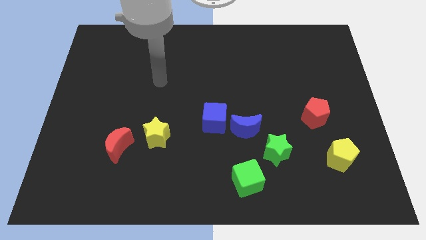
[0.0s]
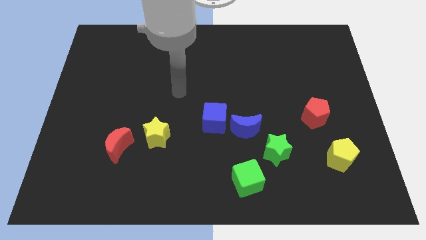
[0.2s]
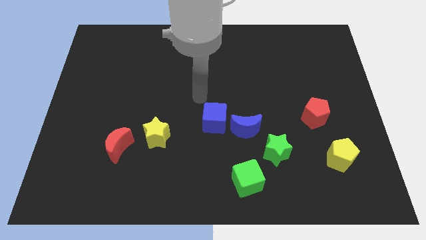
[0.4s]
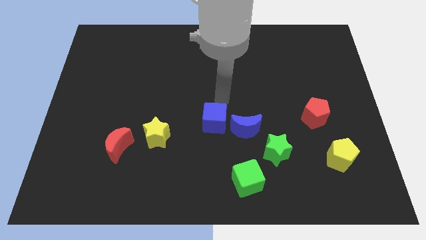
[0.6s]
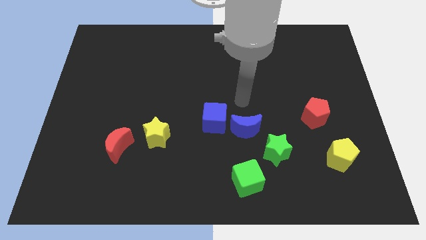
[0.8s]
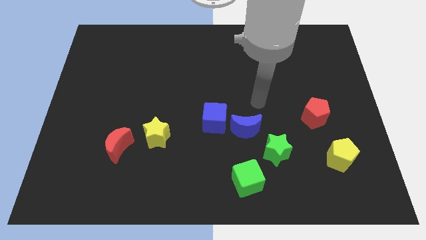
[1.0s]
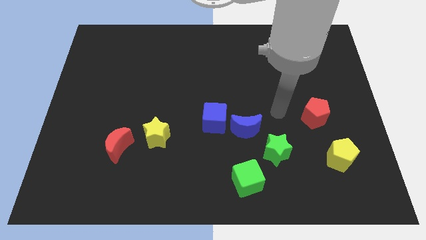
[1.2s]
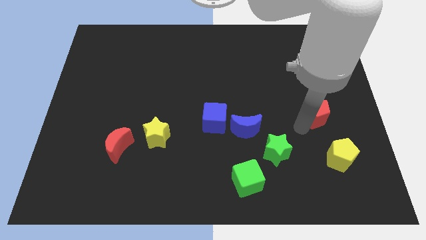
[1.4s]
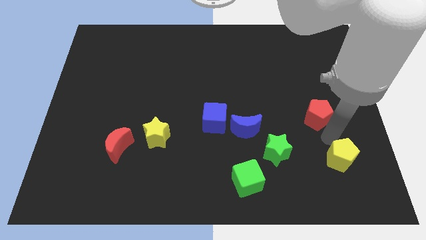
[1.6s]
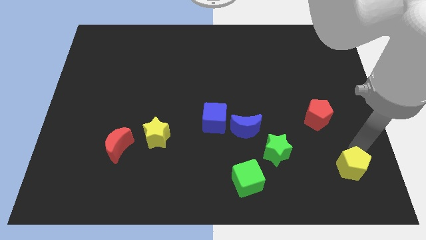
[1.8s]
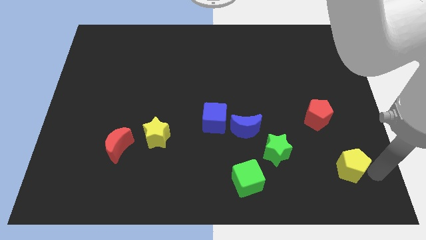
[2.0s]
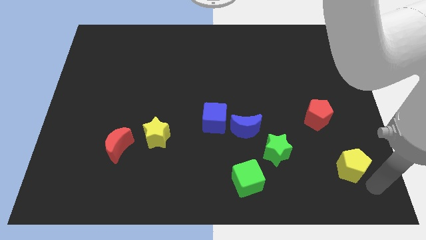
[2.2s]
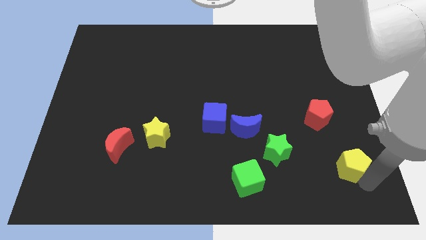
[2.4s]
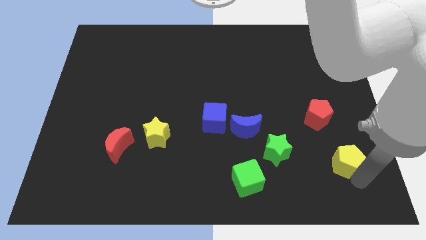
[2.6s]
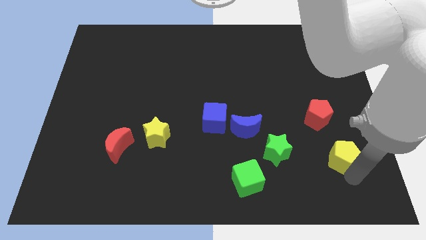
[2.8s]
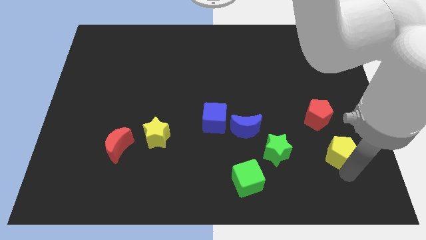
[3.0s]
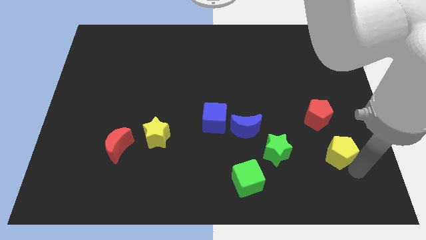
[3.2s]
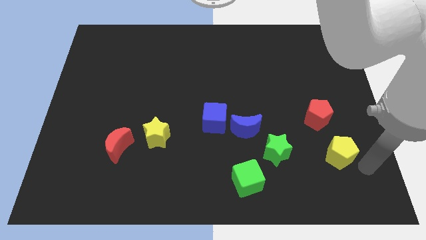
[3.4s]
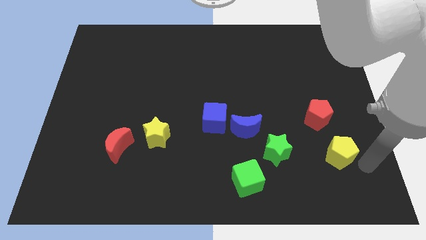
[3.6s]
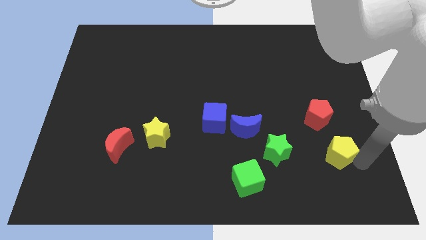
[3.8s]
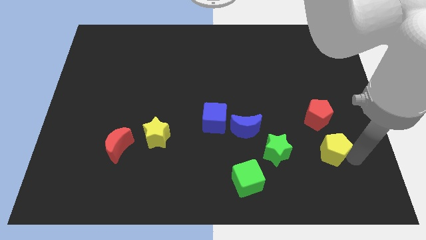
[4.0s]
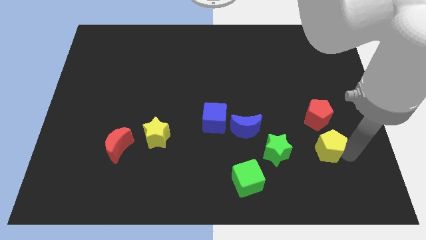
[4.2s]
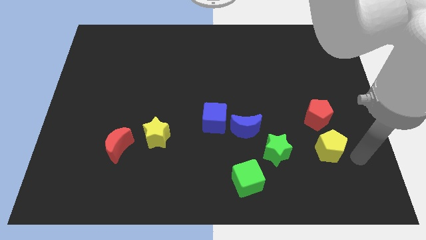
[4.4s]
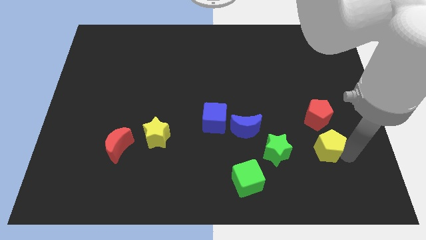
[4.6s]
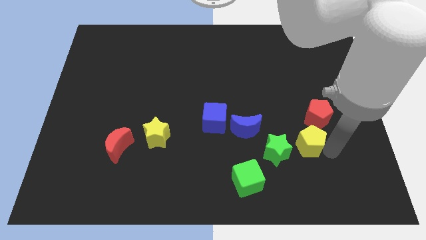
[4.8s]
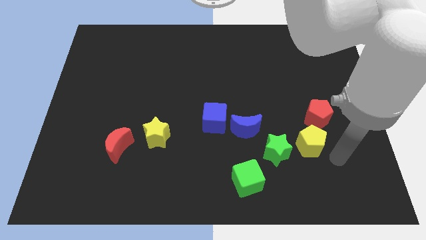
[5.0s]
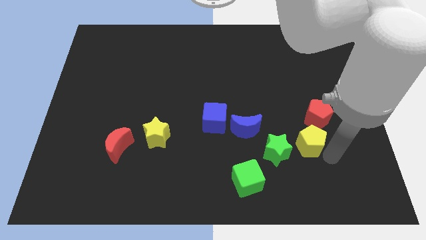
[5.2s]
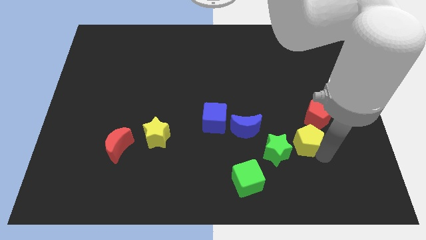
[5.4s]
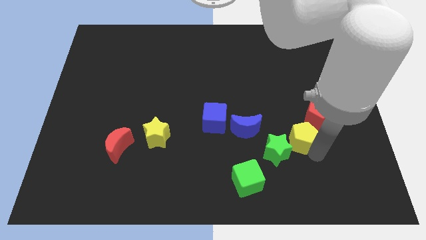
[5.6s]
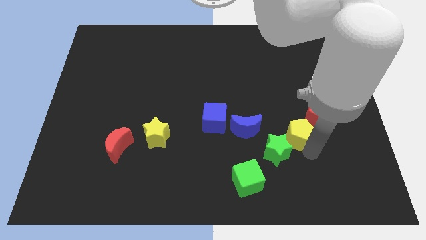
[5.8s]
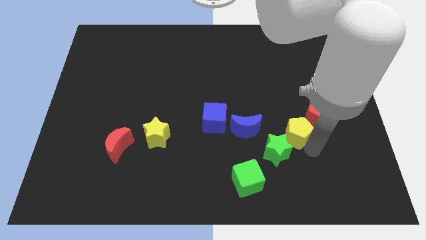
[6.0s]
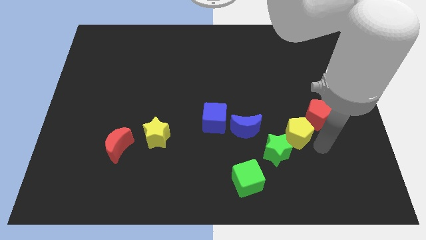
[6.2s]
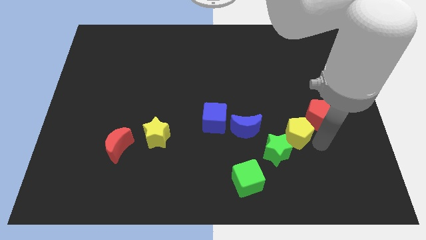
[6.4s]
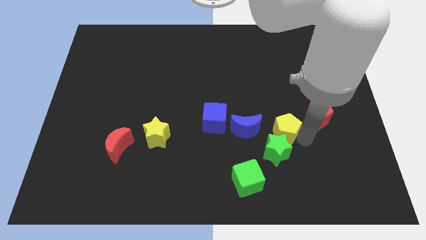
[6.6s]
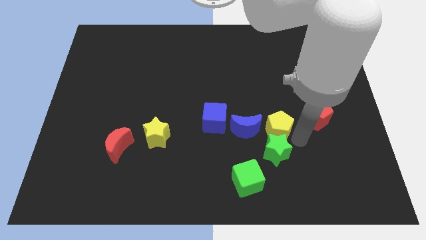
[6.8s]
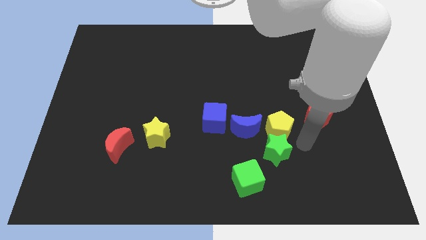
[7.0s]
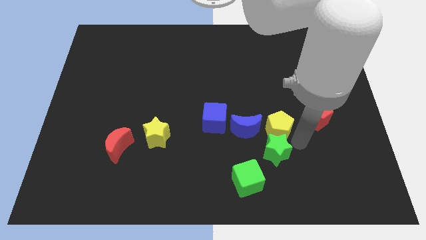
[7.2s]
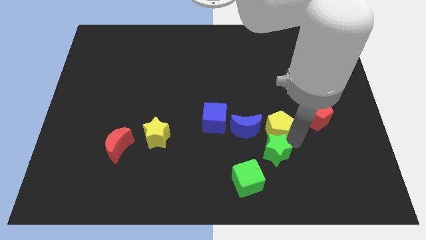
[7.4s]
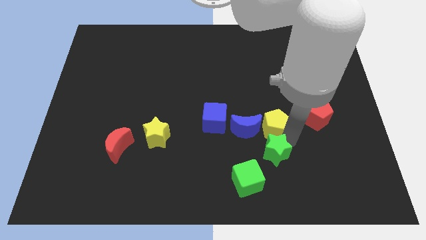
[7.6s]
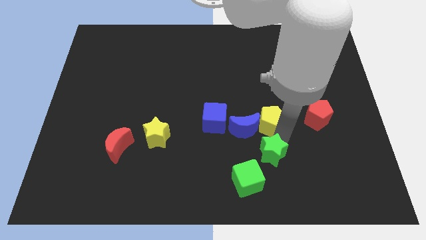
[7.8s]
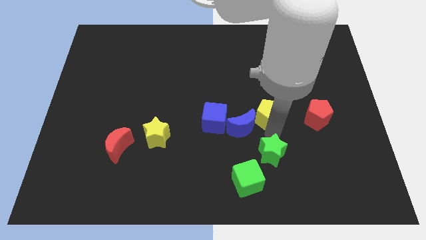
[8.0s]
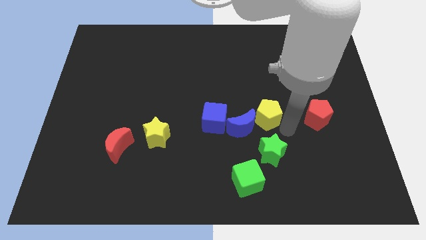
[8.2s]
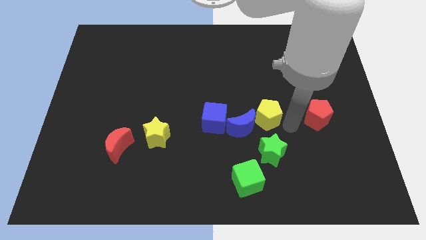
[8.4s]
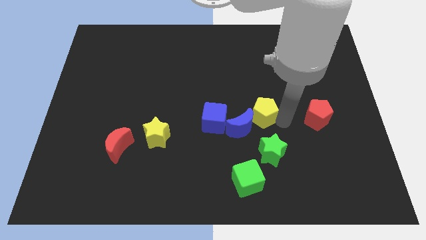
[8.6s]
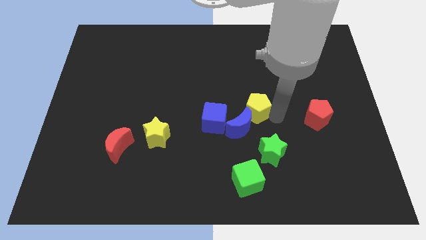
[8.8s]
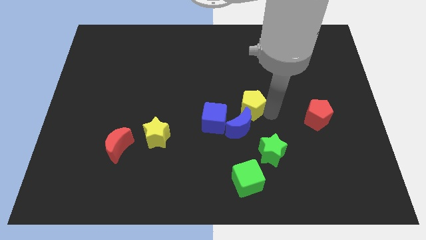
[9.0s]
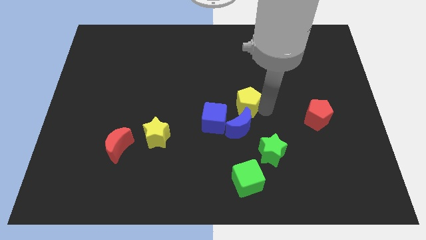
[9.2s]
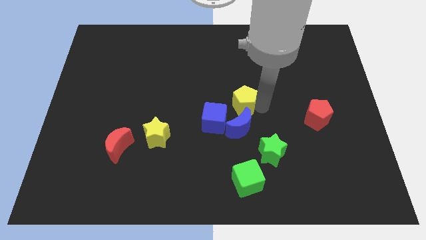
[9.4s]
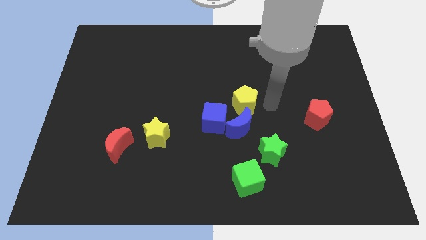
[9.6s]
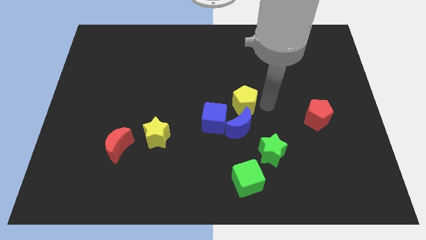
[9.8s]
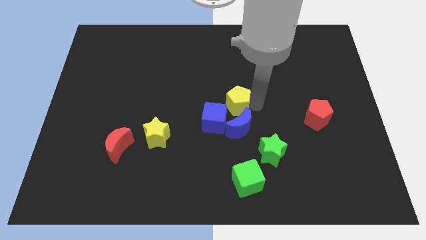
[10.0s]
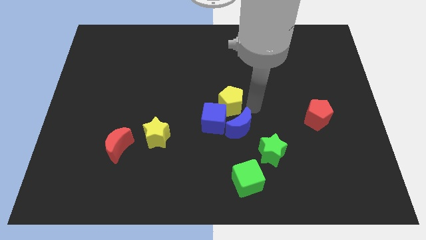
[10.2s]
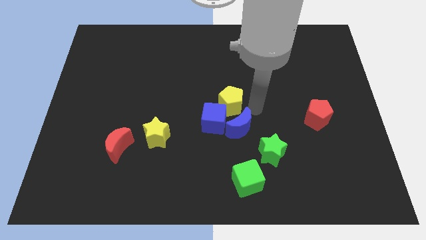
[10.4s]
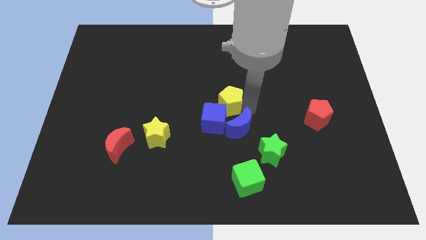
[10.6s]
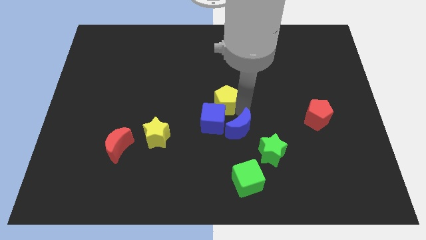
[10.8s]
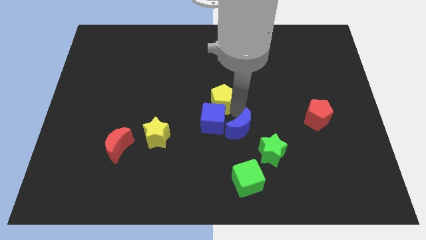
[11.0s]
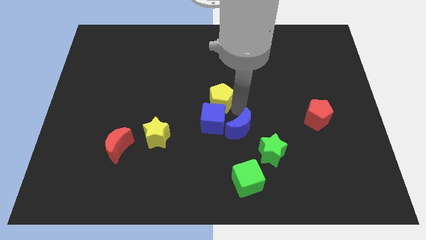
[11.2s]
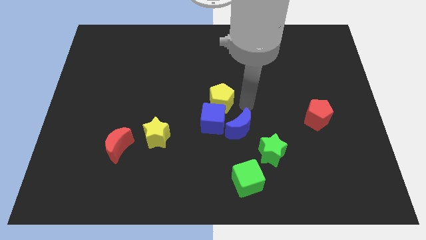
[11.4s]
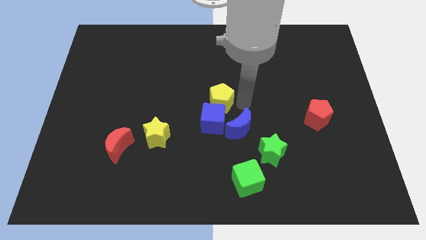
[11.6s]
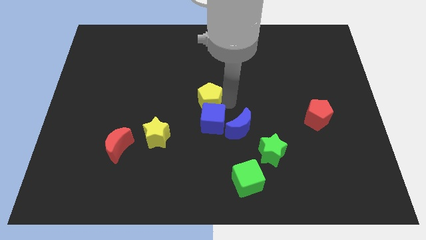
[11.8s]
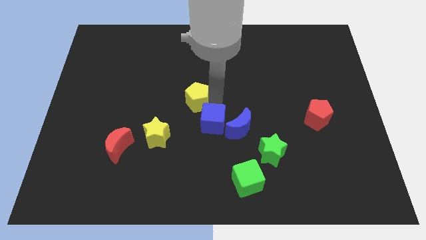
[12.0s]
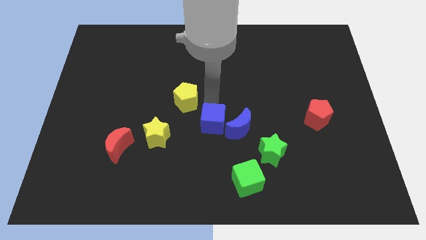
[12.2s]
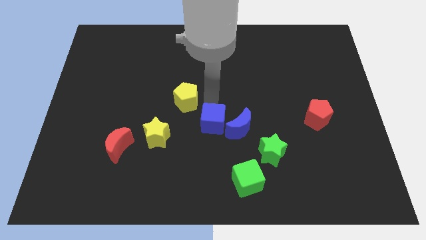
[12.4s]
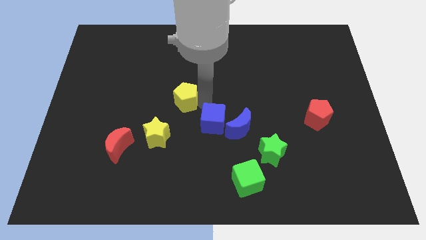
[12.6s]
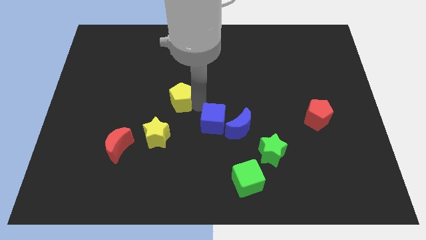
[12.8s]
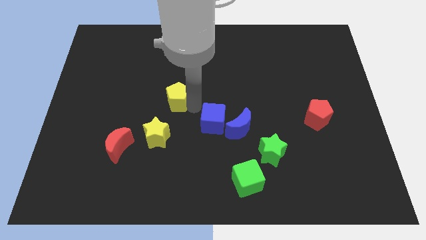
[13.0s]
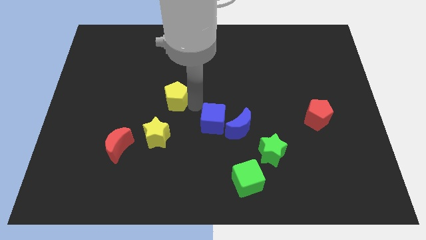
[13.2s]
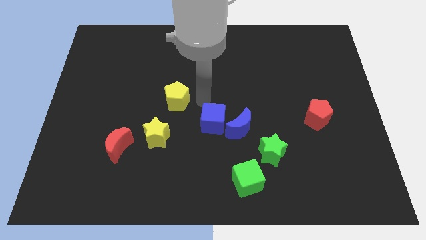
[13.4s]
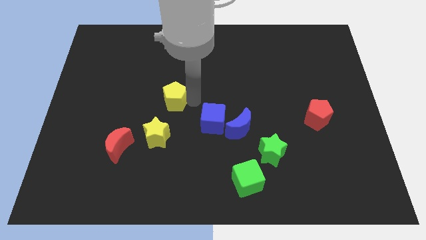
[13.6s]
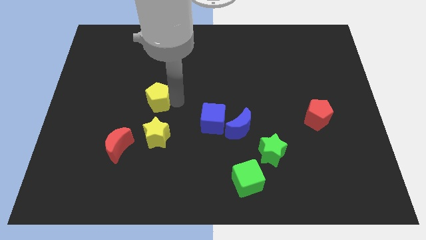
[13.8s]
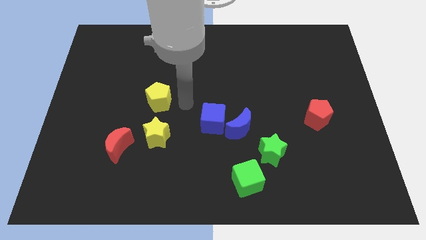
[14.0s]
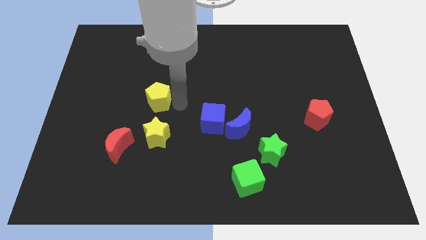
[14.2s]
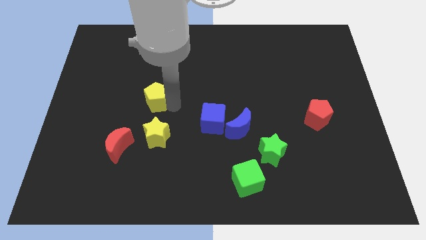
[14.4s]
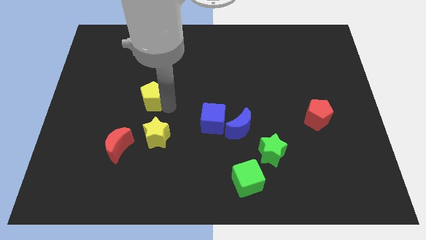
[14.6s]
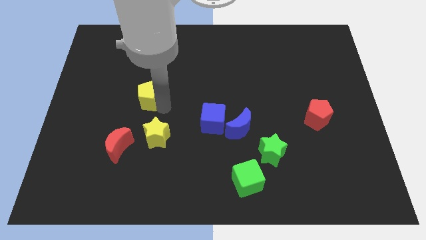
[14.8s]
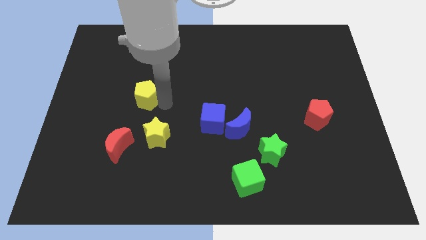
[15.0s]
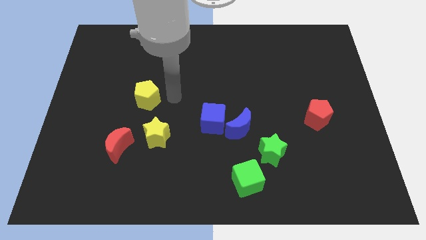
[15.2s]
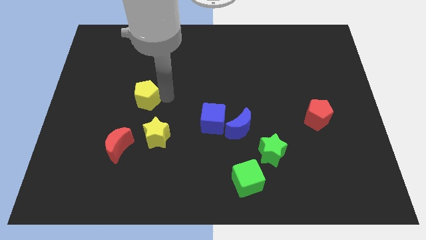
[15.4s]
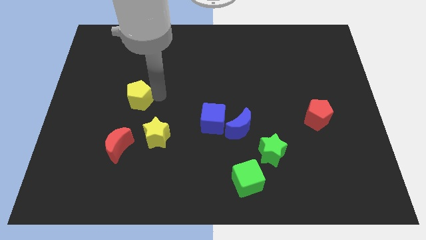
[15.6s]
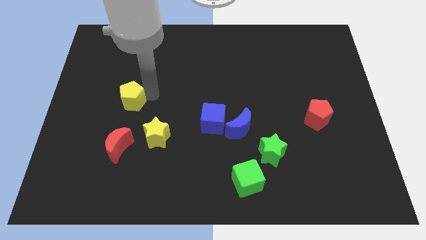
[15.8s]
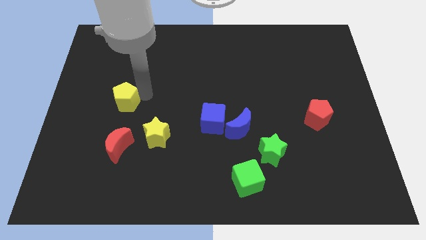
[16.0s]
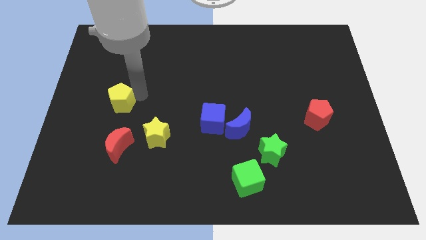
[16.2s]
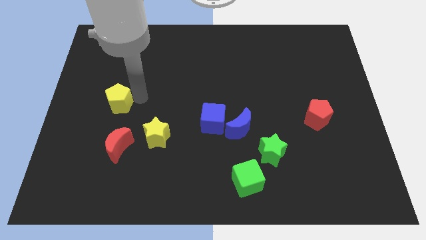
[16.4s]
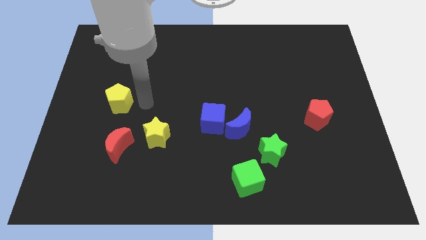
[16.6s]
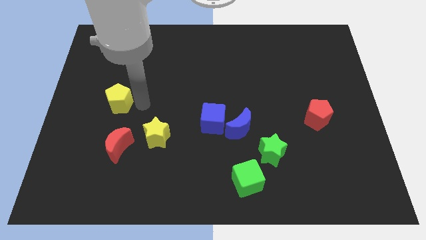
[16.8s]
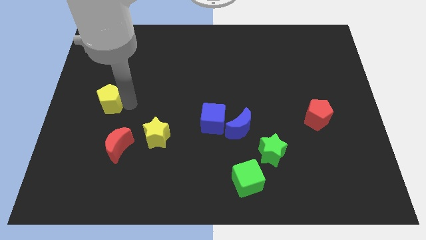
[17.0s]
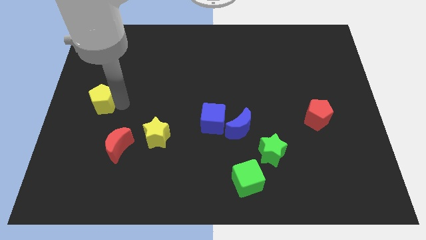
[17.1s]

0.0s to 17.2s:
slide the yellow pentagon to the center left
